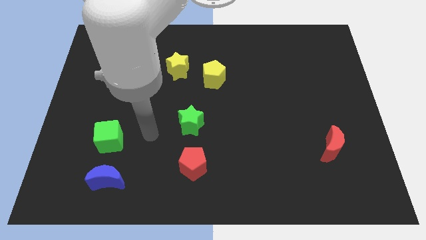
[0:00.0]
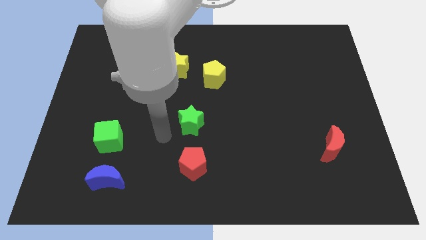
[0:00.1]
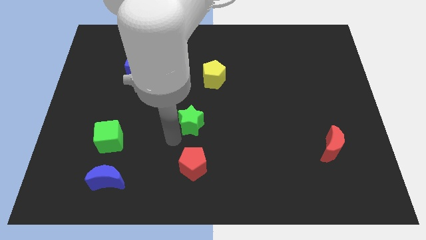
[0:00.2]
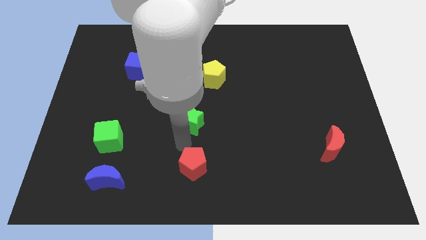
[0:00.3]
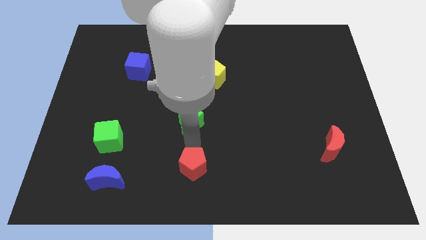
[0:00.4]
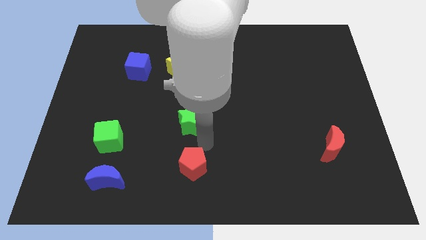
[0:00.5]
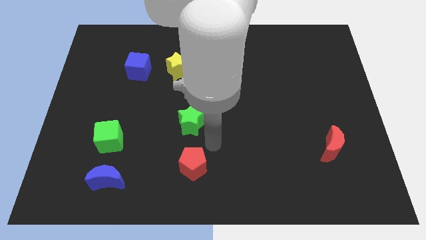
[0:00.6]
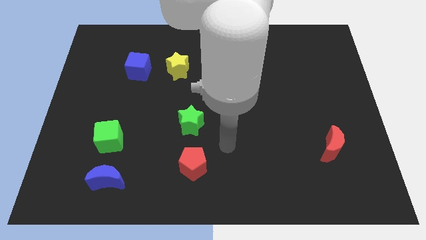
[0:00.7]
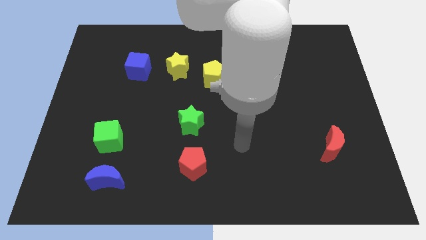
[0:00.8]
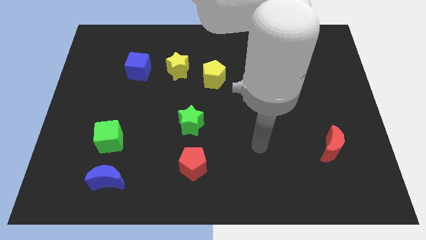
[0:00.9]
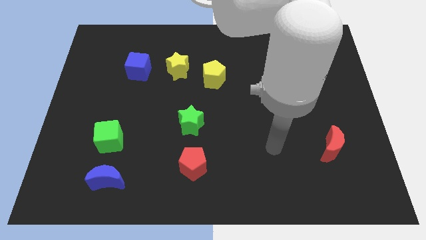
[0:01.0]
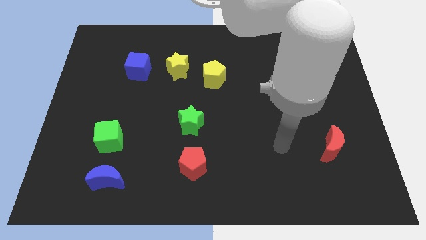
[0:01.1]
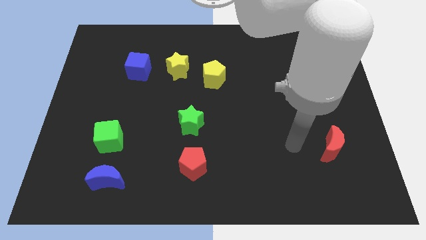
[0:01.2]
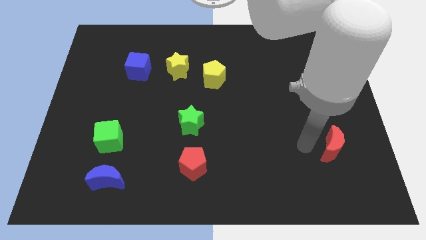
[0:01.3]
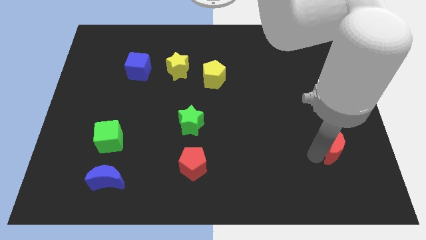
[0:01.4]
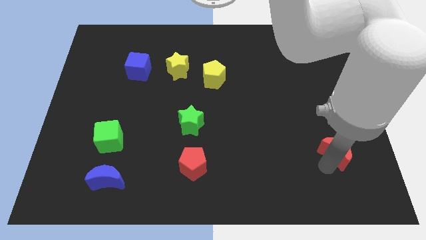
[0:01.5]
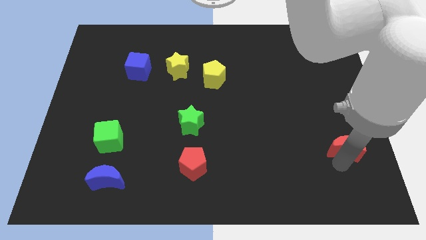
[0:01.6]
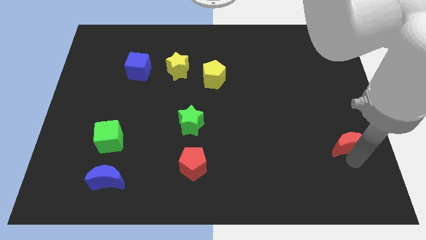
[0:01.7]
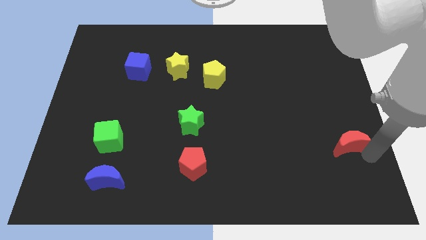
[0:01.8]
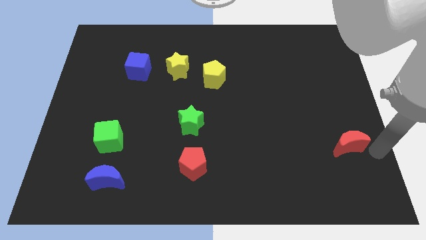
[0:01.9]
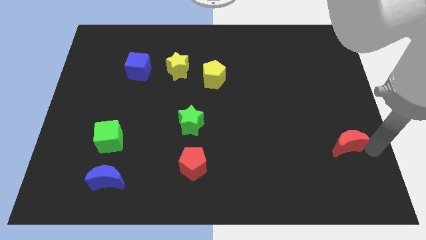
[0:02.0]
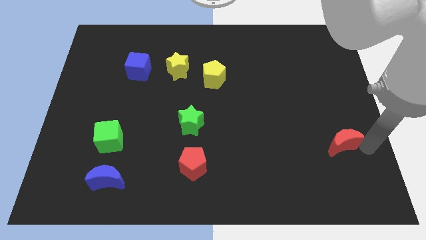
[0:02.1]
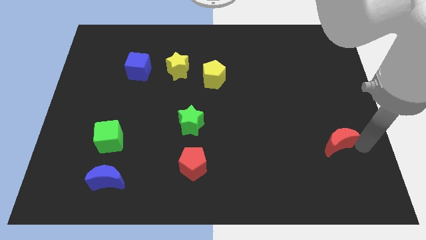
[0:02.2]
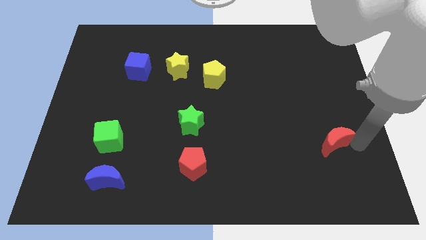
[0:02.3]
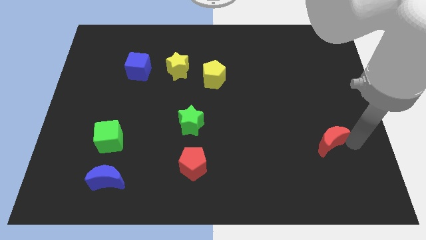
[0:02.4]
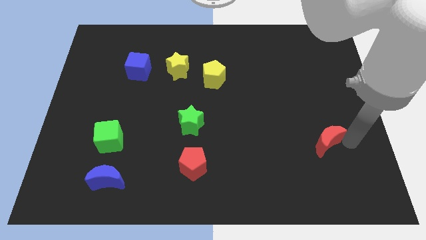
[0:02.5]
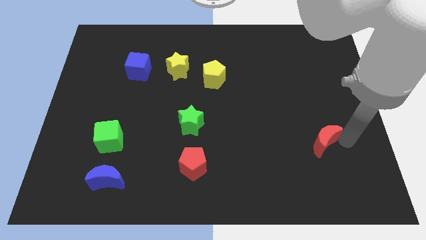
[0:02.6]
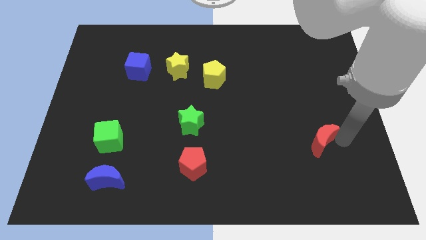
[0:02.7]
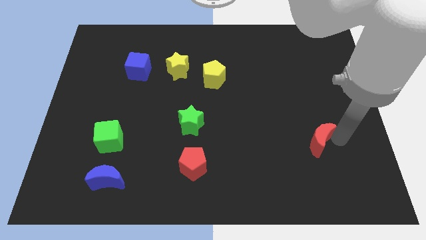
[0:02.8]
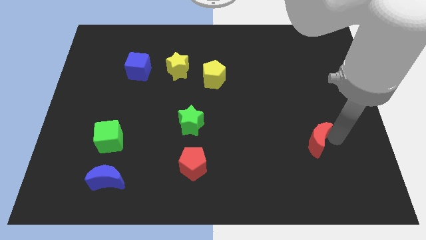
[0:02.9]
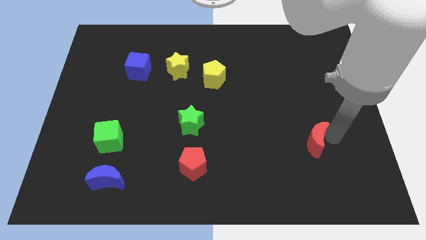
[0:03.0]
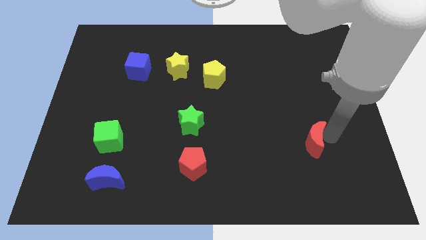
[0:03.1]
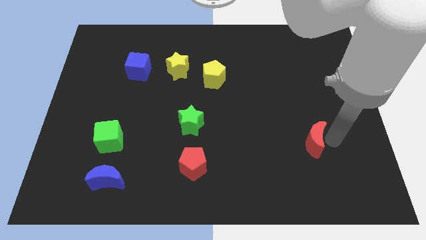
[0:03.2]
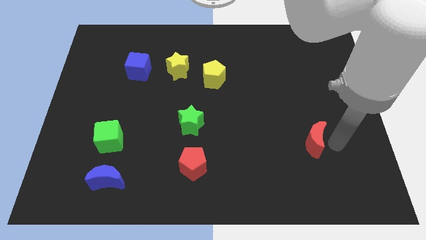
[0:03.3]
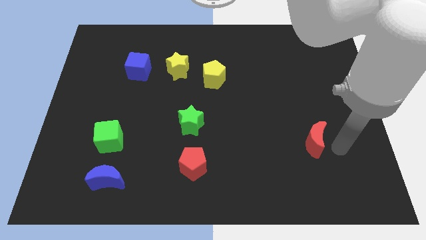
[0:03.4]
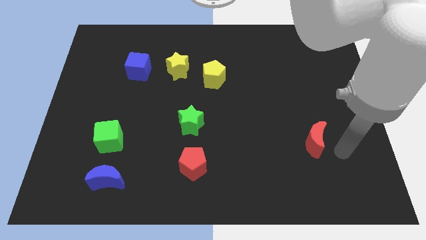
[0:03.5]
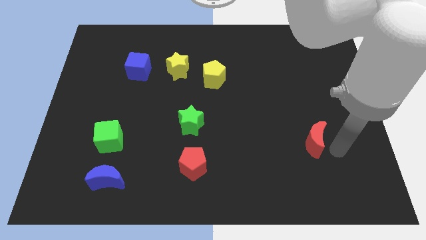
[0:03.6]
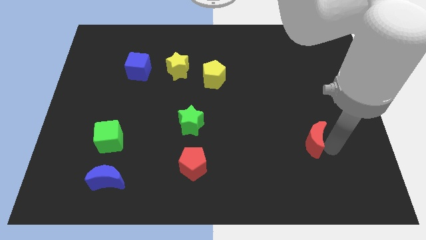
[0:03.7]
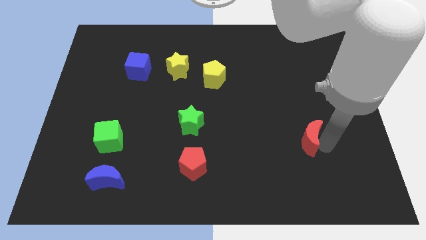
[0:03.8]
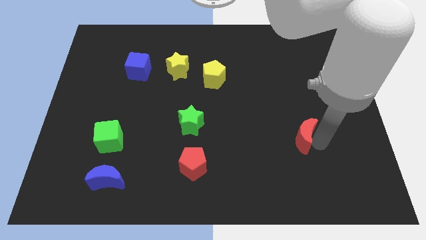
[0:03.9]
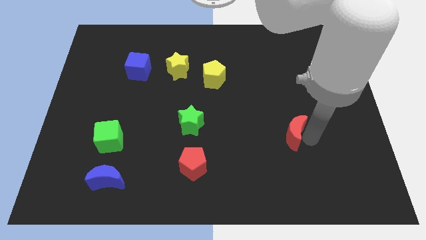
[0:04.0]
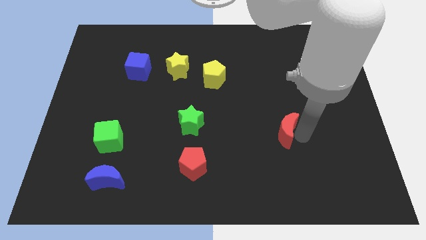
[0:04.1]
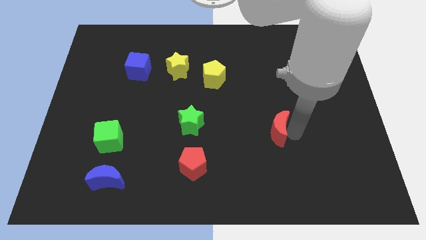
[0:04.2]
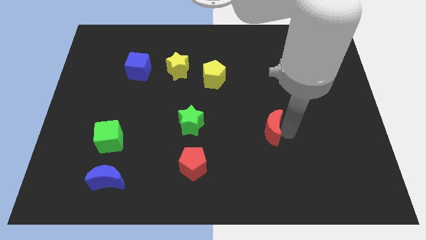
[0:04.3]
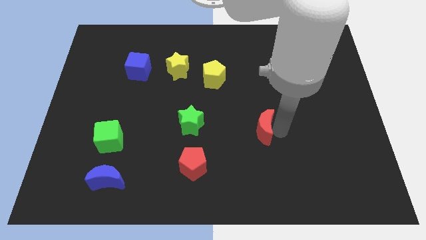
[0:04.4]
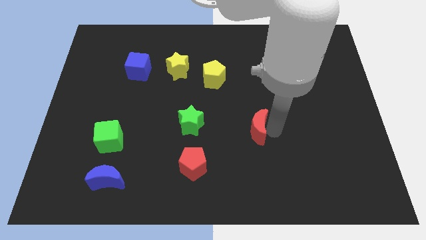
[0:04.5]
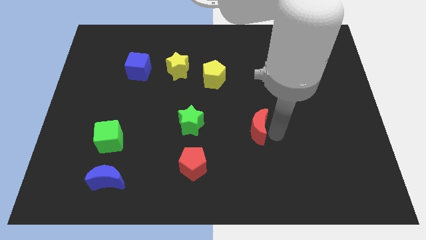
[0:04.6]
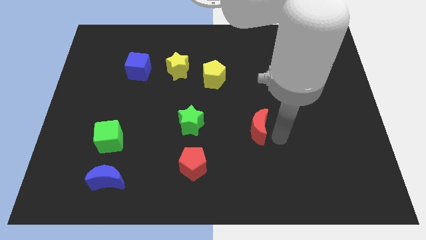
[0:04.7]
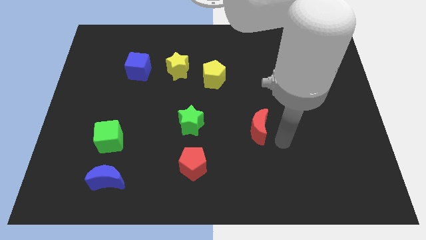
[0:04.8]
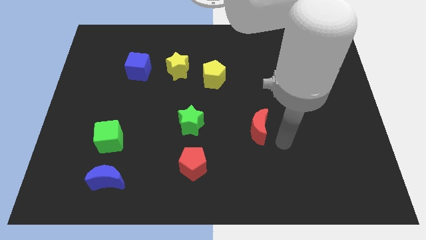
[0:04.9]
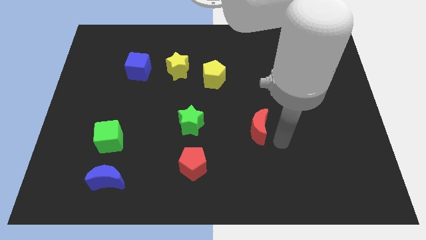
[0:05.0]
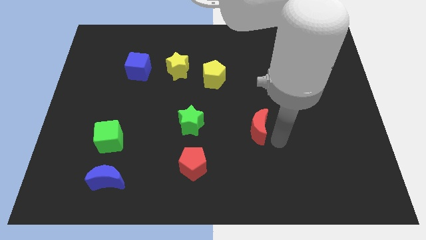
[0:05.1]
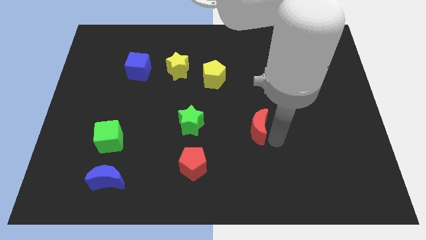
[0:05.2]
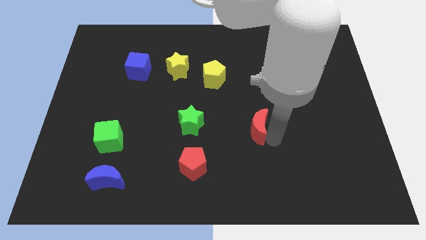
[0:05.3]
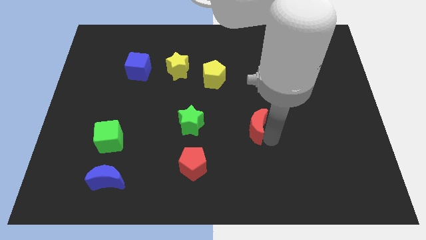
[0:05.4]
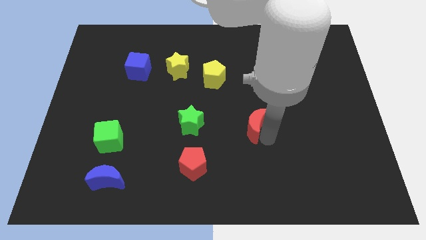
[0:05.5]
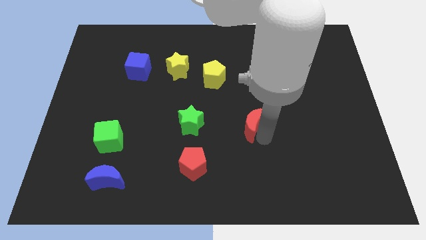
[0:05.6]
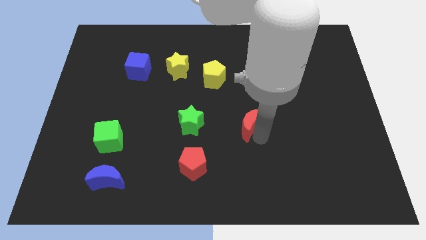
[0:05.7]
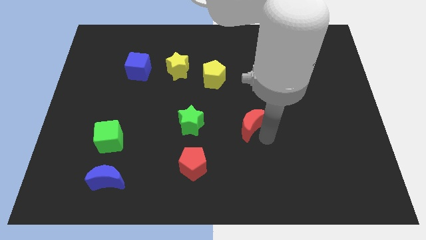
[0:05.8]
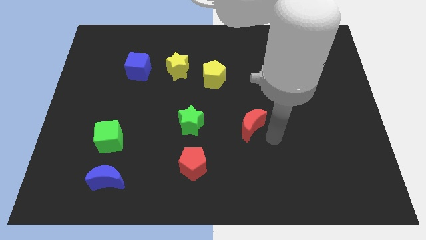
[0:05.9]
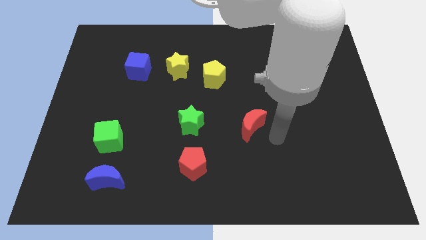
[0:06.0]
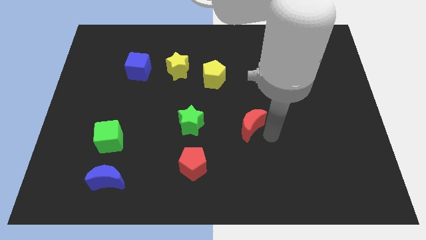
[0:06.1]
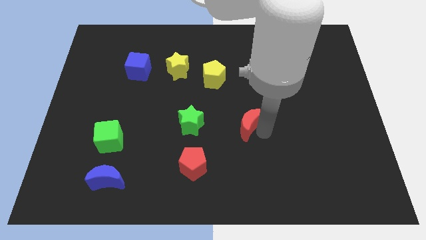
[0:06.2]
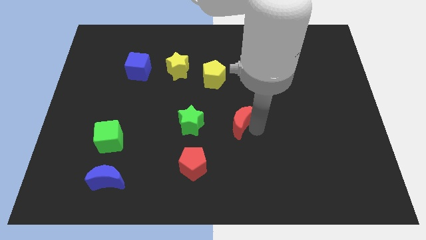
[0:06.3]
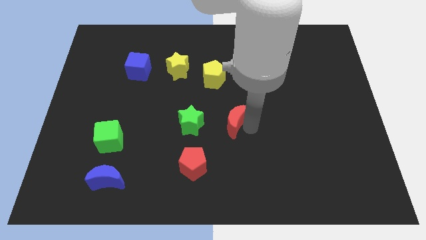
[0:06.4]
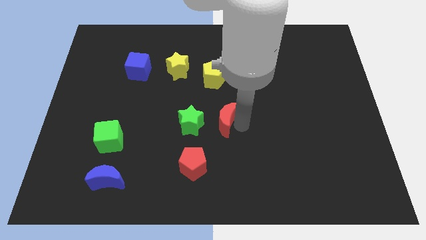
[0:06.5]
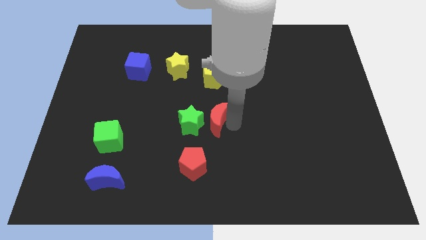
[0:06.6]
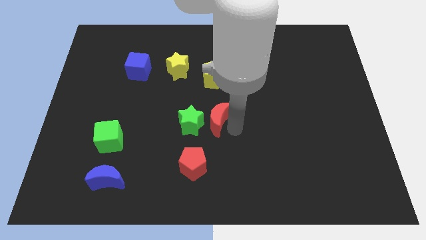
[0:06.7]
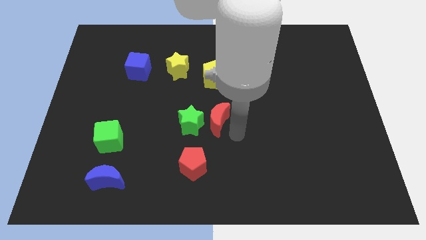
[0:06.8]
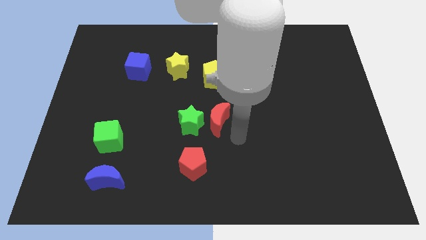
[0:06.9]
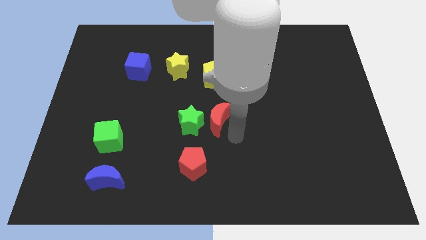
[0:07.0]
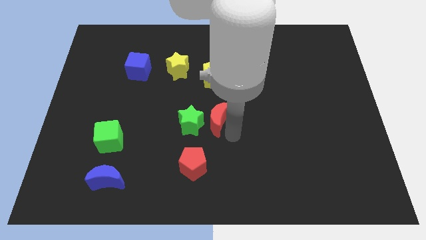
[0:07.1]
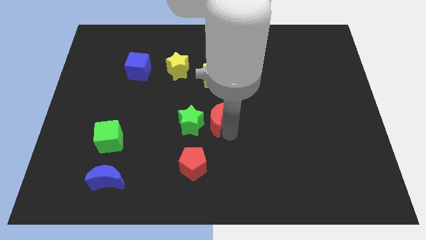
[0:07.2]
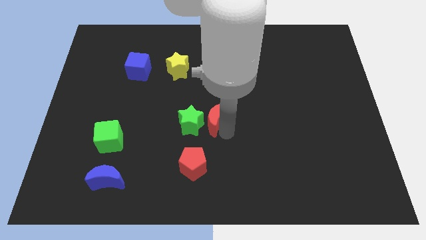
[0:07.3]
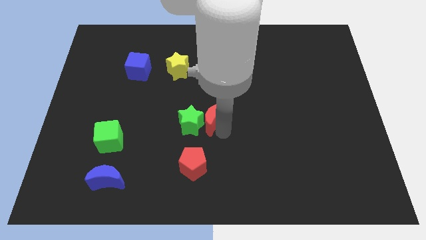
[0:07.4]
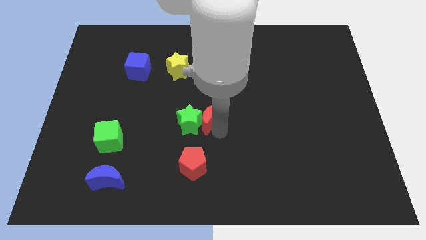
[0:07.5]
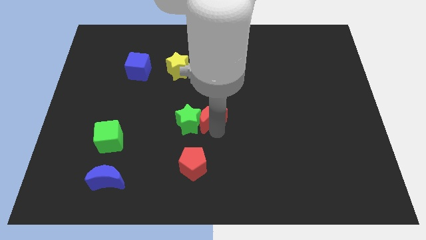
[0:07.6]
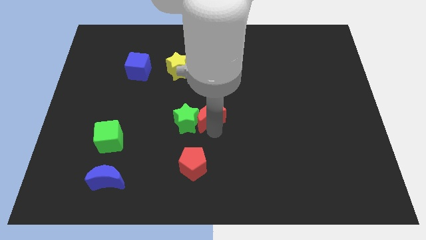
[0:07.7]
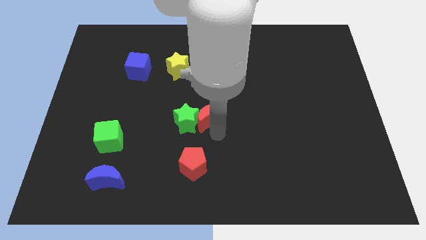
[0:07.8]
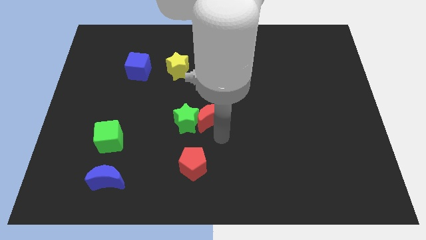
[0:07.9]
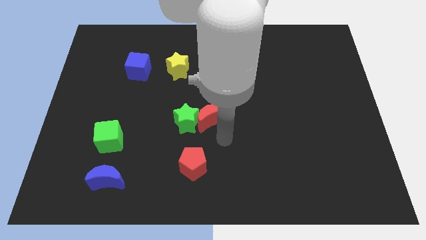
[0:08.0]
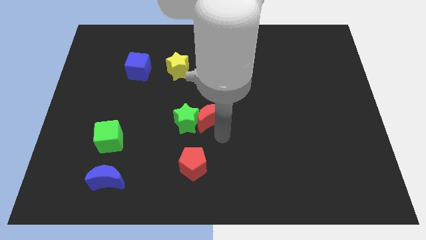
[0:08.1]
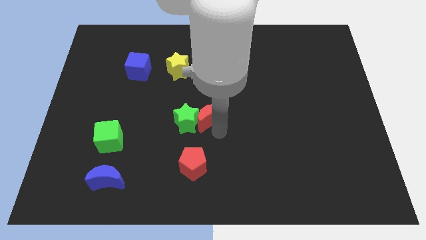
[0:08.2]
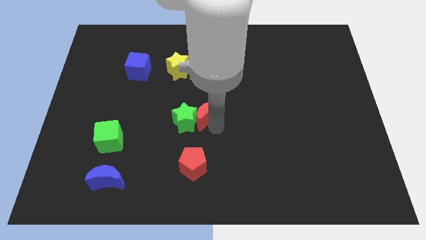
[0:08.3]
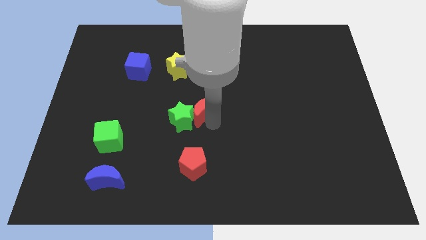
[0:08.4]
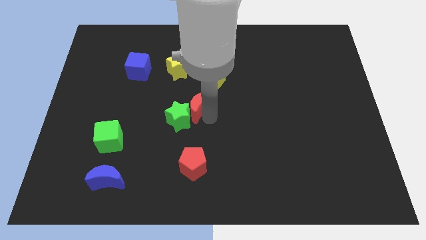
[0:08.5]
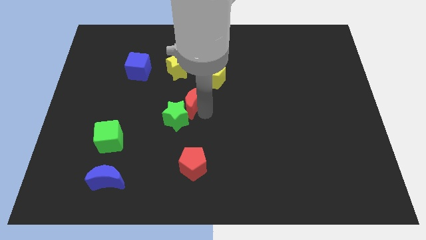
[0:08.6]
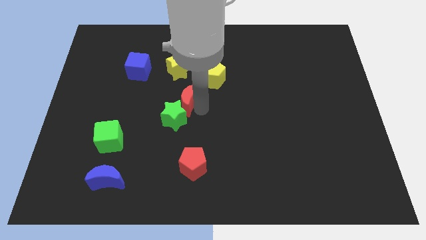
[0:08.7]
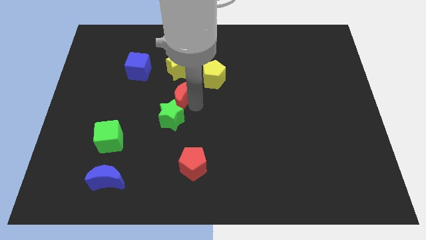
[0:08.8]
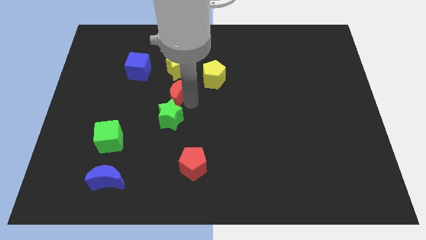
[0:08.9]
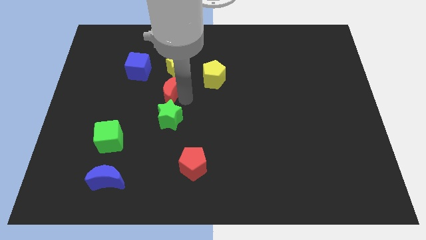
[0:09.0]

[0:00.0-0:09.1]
put the red moon to the bottom left side of the yellow star
